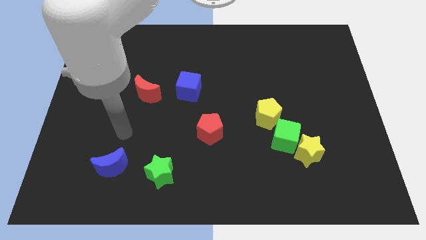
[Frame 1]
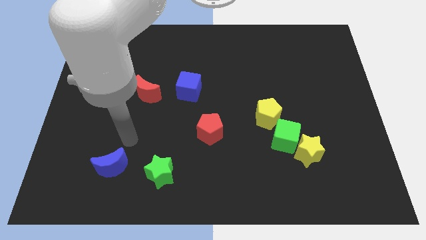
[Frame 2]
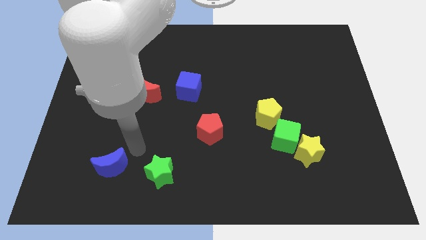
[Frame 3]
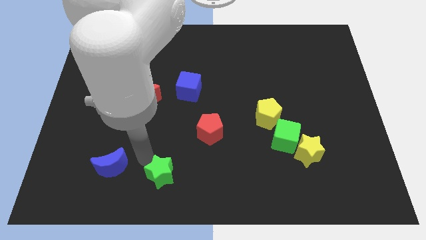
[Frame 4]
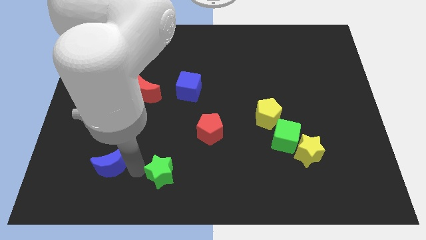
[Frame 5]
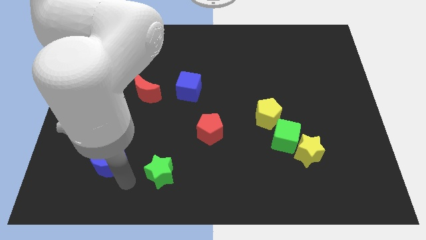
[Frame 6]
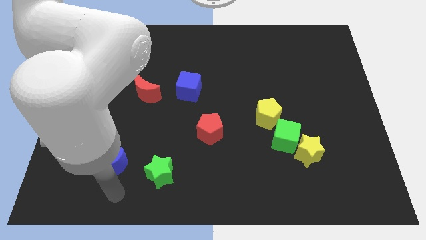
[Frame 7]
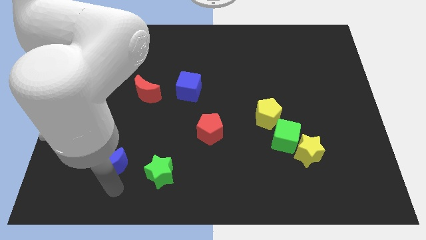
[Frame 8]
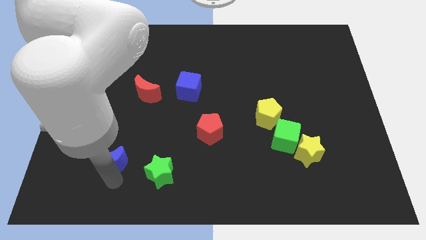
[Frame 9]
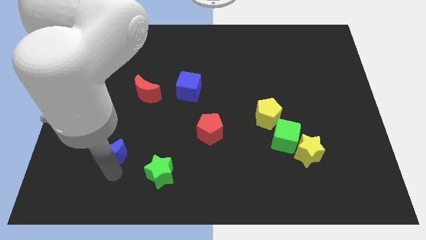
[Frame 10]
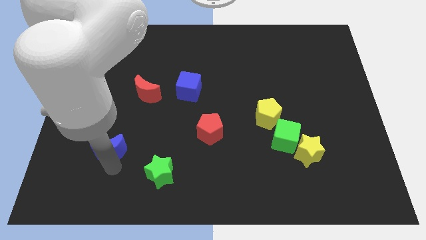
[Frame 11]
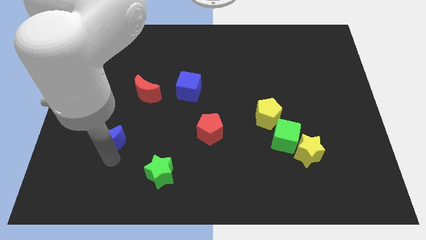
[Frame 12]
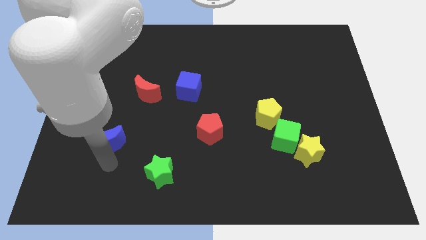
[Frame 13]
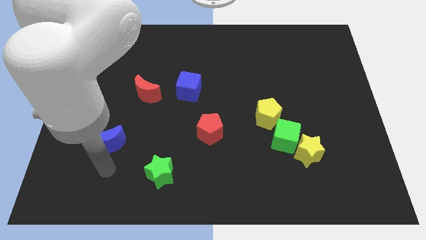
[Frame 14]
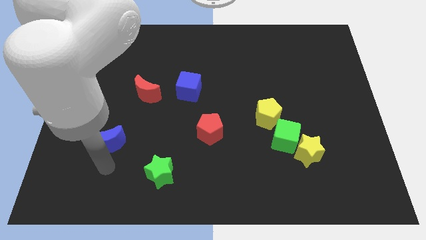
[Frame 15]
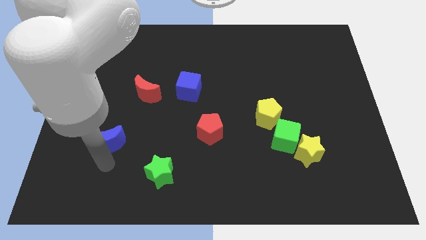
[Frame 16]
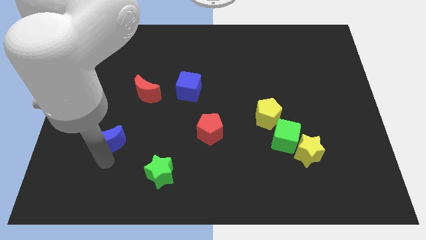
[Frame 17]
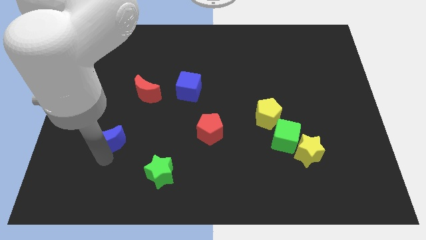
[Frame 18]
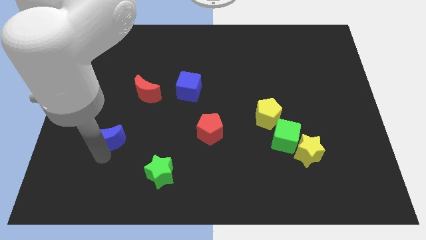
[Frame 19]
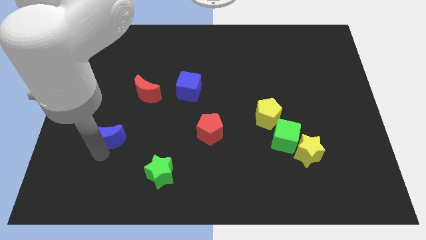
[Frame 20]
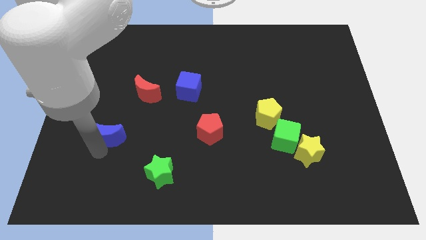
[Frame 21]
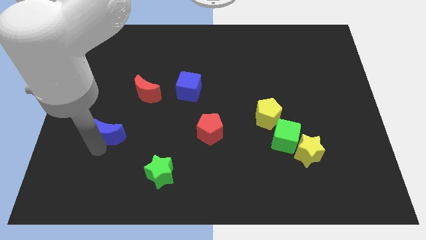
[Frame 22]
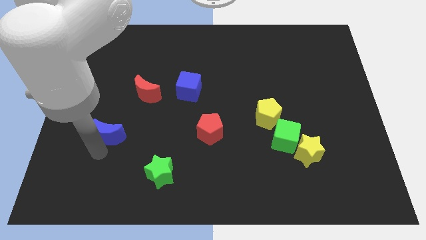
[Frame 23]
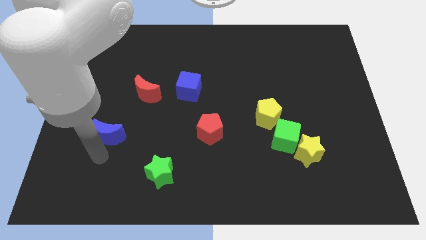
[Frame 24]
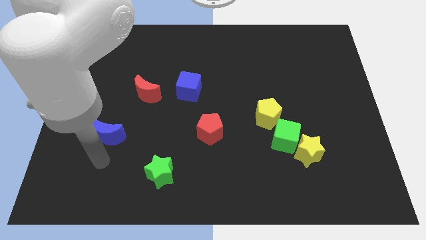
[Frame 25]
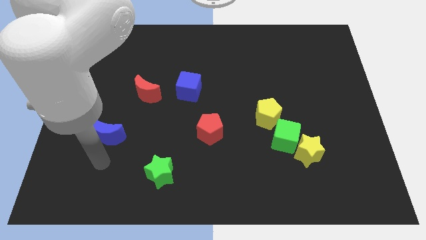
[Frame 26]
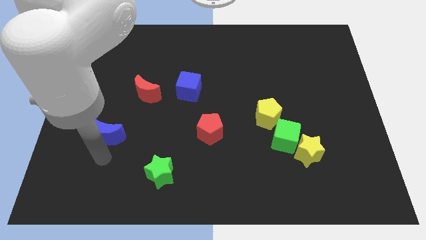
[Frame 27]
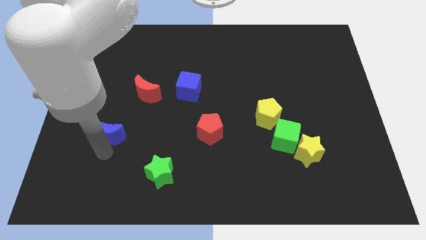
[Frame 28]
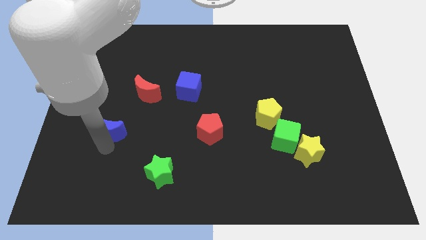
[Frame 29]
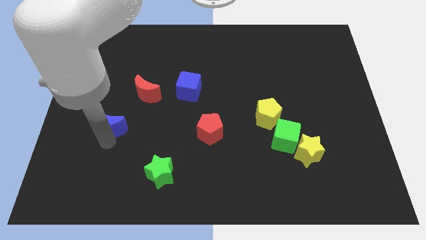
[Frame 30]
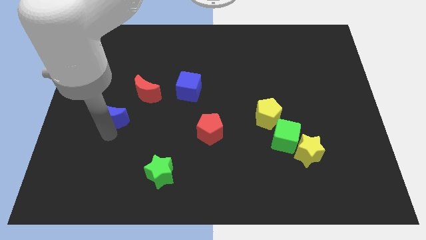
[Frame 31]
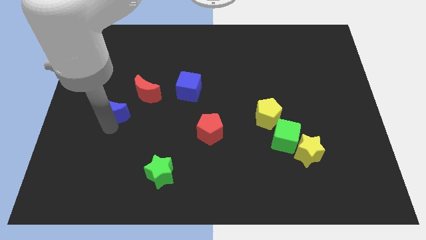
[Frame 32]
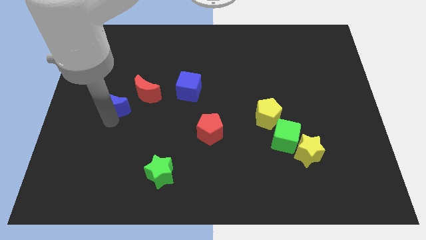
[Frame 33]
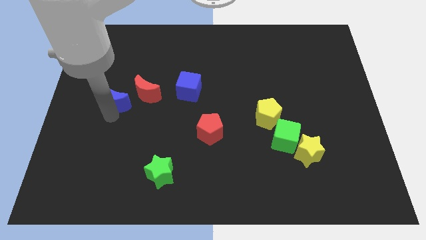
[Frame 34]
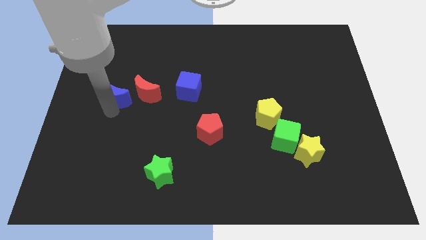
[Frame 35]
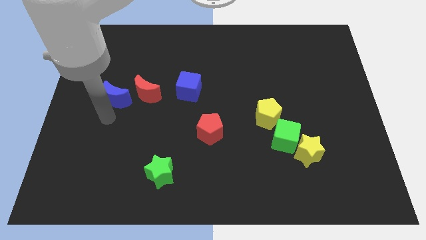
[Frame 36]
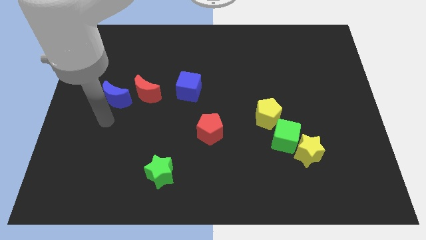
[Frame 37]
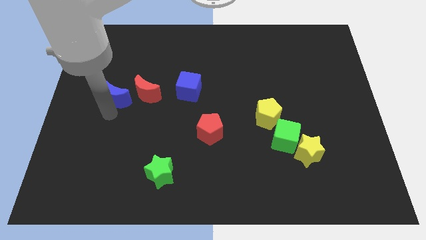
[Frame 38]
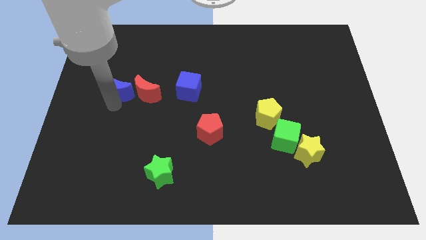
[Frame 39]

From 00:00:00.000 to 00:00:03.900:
push the blue moon up

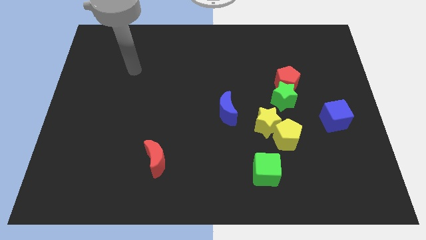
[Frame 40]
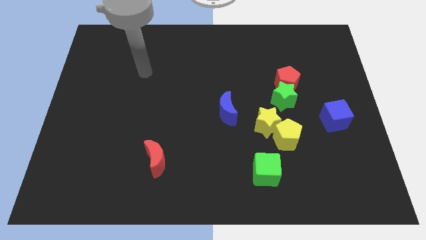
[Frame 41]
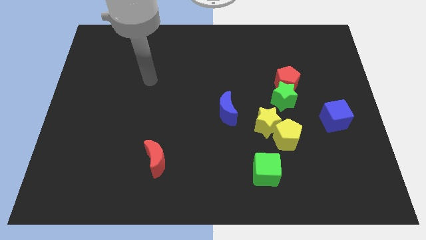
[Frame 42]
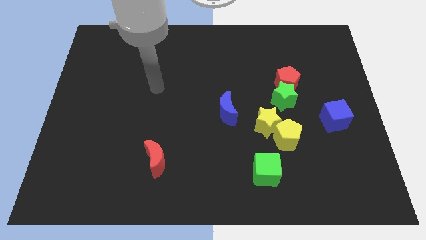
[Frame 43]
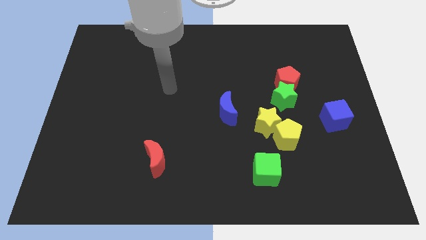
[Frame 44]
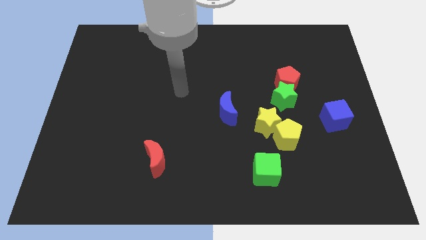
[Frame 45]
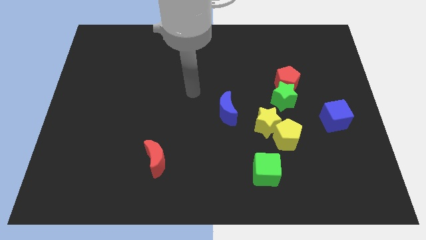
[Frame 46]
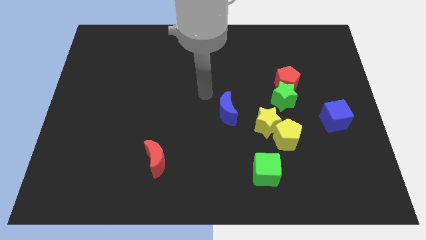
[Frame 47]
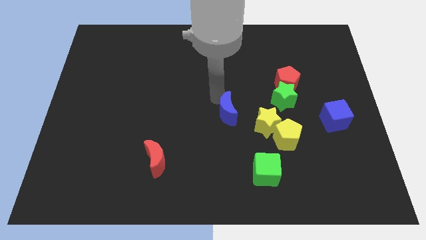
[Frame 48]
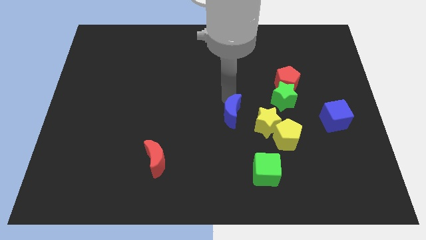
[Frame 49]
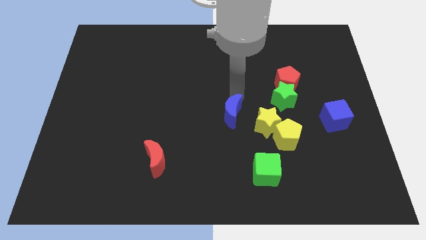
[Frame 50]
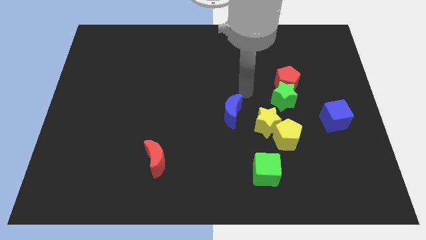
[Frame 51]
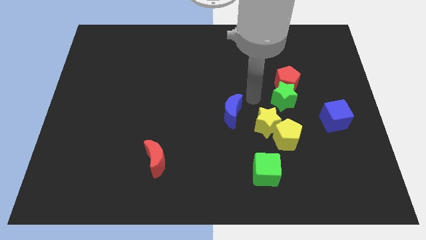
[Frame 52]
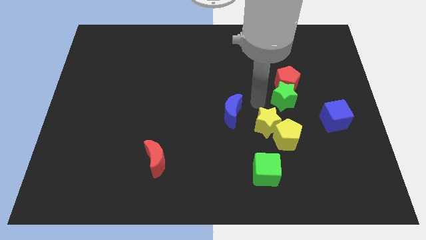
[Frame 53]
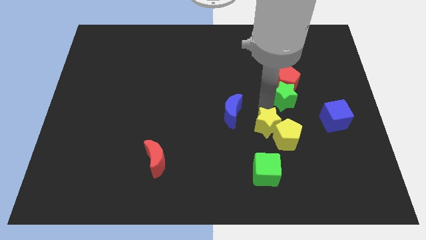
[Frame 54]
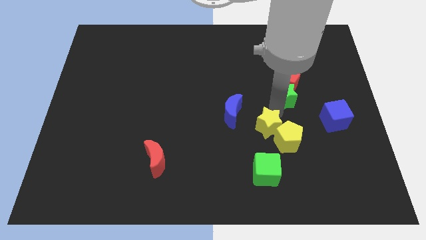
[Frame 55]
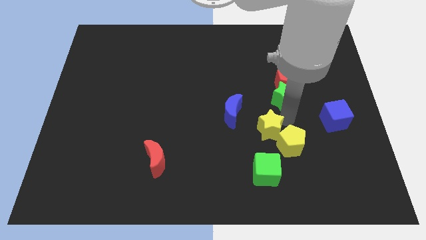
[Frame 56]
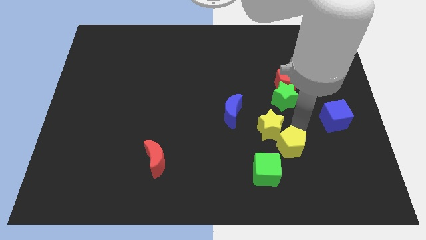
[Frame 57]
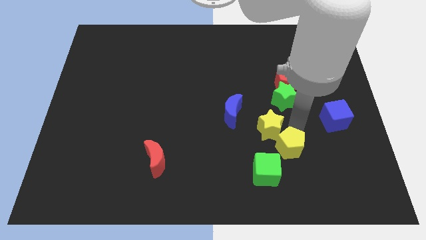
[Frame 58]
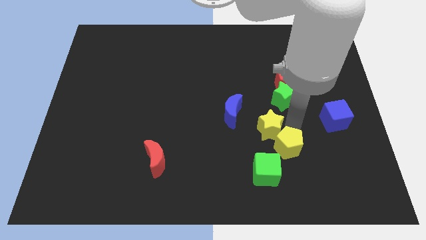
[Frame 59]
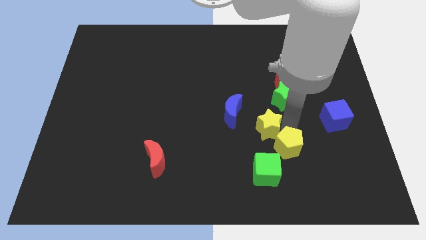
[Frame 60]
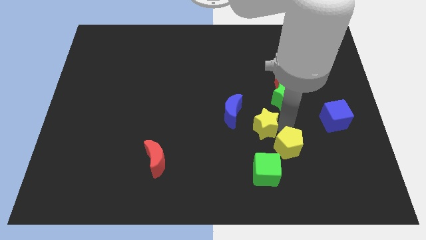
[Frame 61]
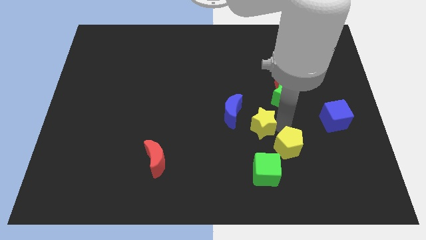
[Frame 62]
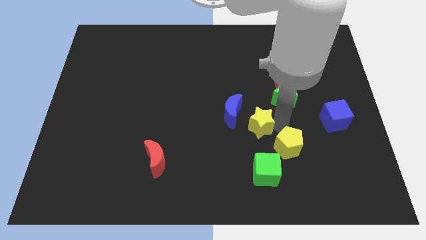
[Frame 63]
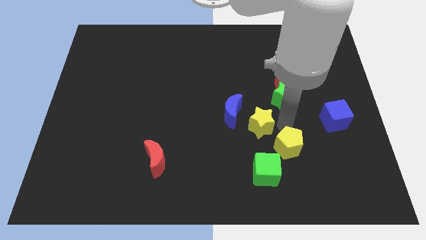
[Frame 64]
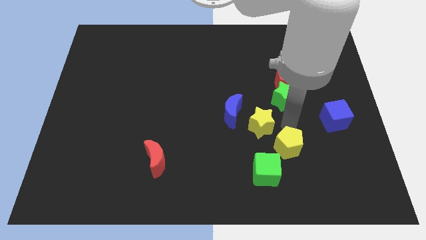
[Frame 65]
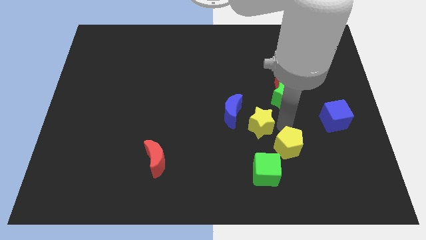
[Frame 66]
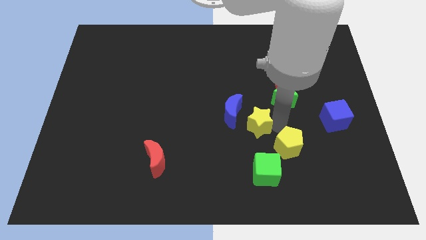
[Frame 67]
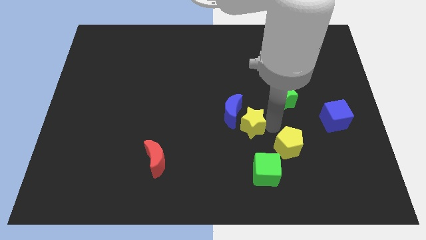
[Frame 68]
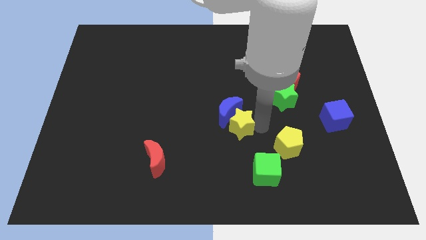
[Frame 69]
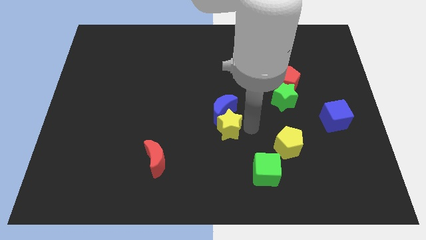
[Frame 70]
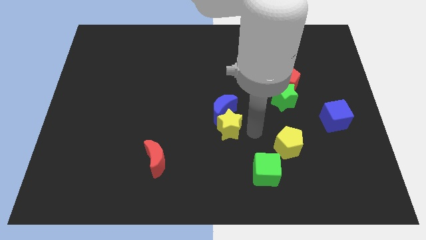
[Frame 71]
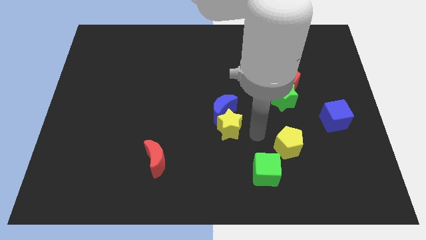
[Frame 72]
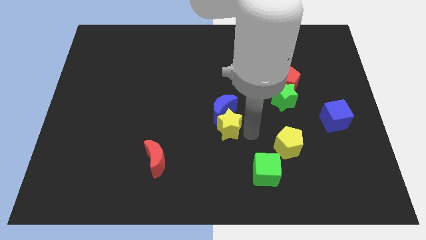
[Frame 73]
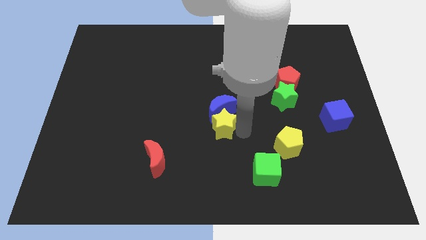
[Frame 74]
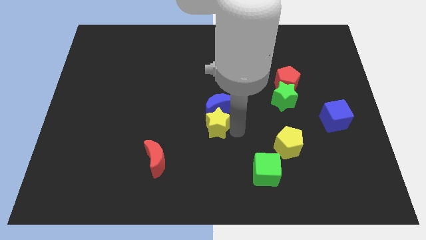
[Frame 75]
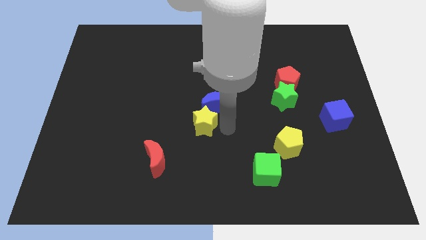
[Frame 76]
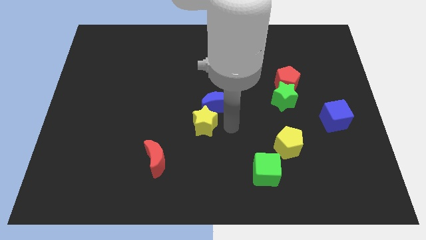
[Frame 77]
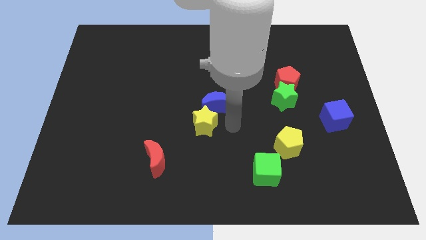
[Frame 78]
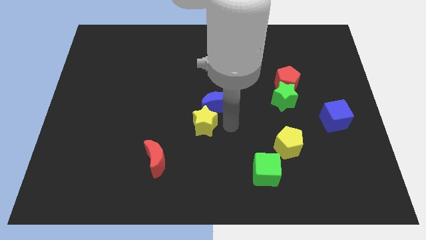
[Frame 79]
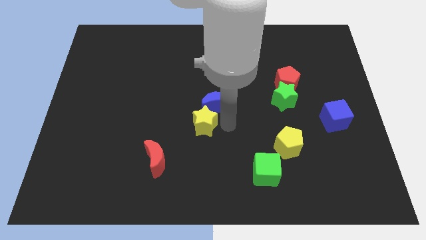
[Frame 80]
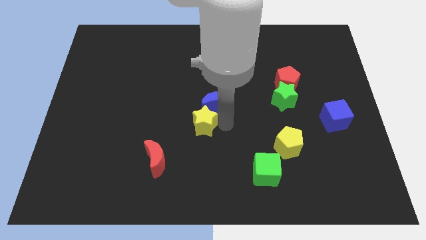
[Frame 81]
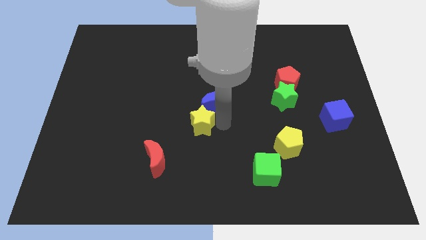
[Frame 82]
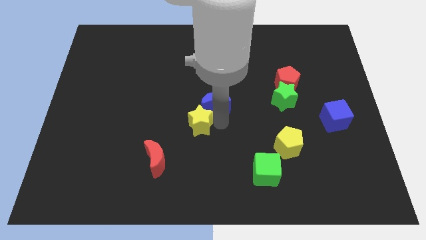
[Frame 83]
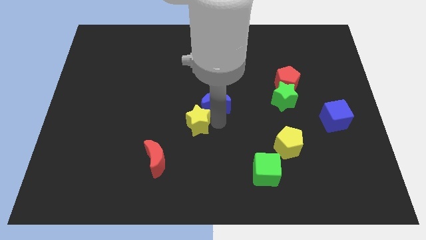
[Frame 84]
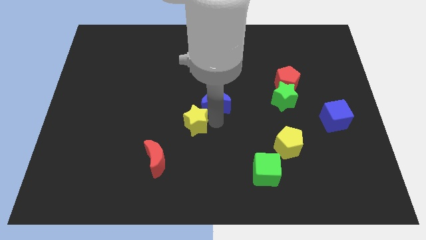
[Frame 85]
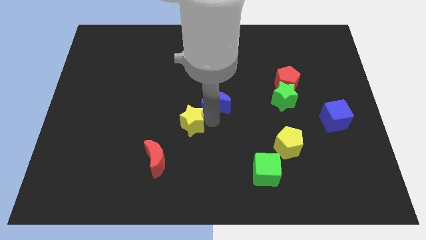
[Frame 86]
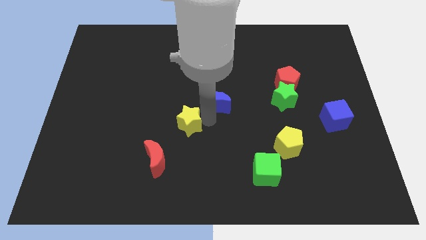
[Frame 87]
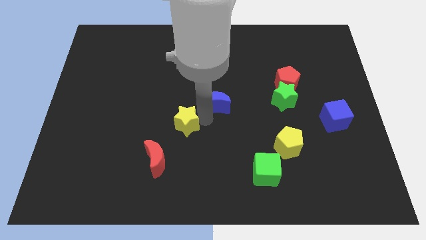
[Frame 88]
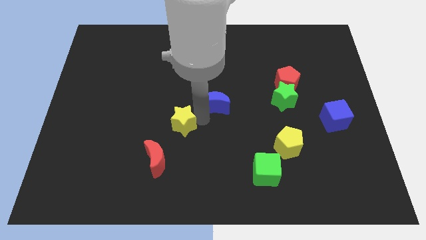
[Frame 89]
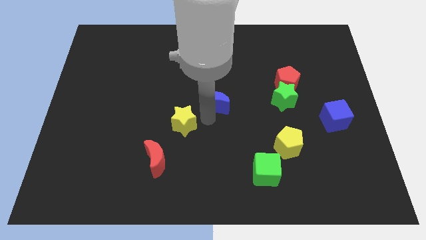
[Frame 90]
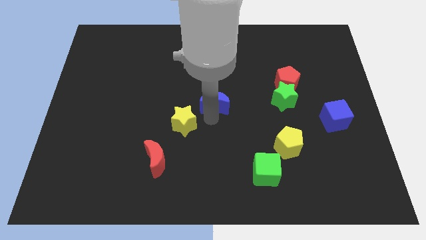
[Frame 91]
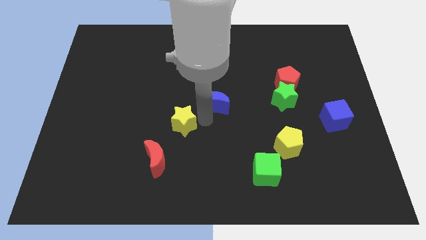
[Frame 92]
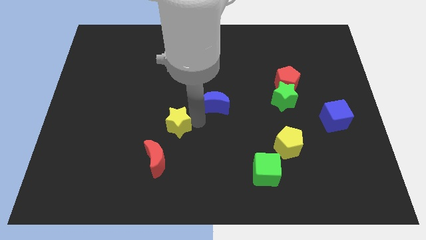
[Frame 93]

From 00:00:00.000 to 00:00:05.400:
move the yellow star to the left
